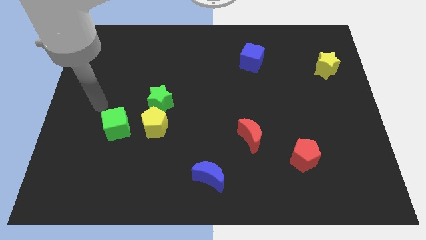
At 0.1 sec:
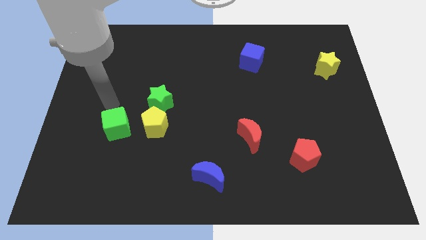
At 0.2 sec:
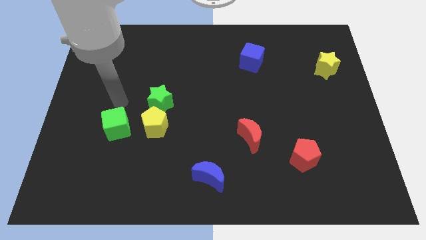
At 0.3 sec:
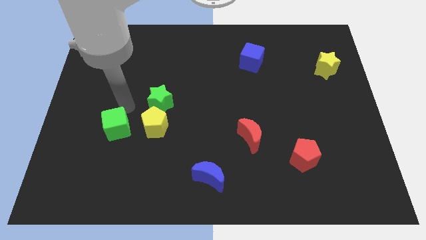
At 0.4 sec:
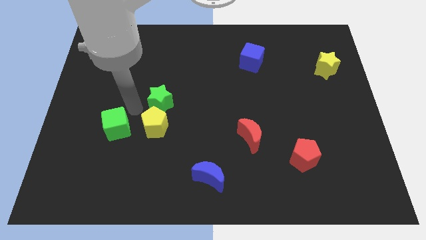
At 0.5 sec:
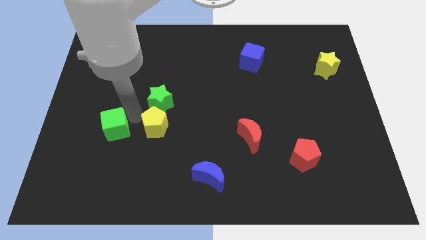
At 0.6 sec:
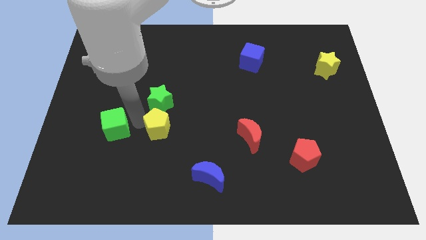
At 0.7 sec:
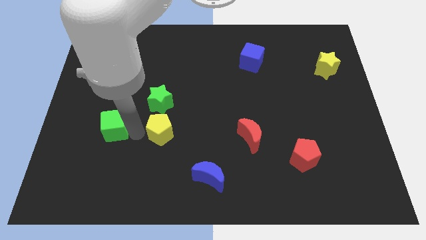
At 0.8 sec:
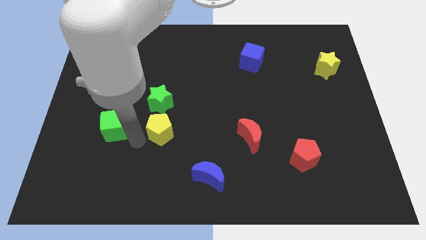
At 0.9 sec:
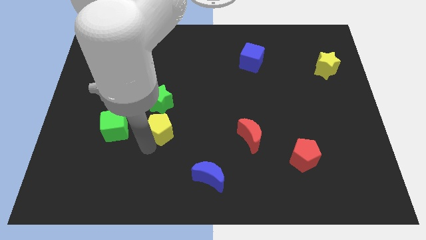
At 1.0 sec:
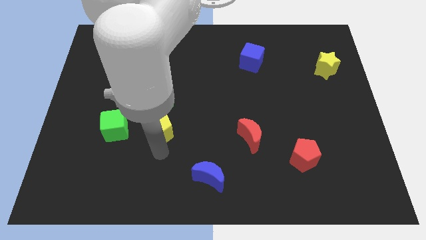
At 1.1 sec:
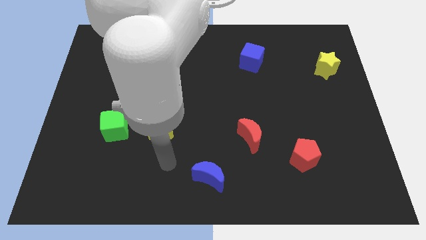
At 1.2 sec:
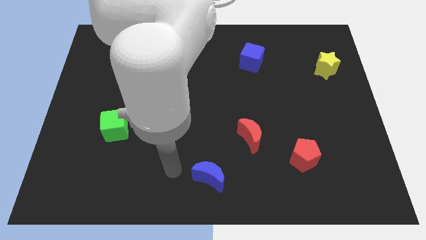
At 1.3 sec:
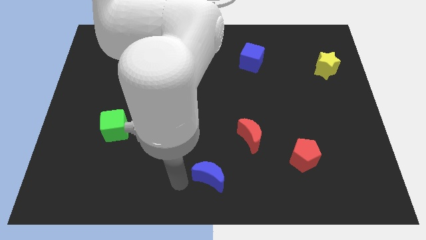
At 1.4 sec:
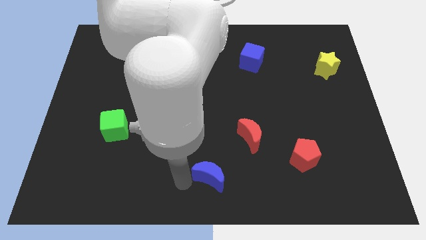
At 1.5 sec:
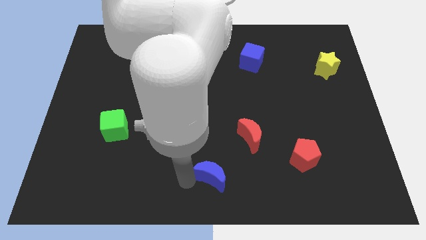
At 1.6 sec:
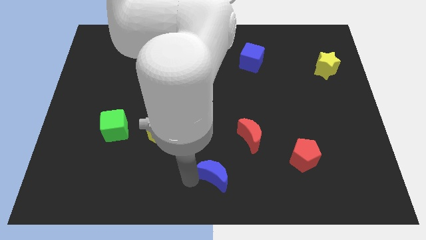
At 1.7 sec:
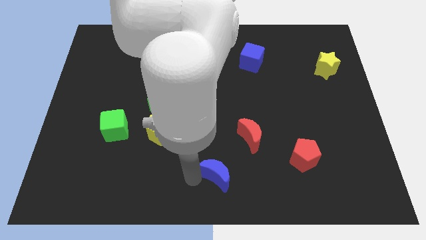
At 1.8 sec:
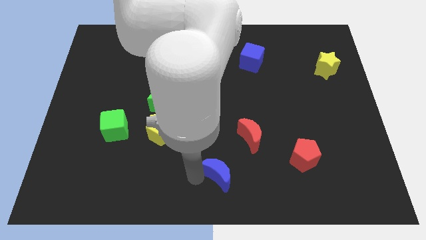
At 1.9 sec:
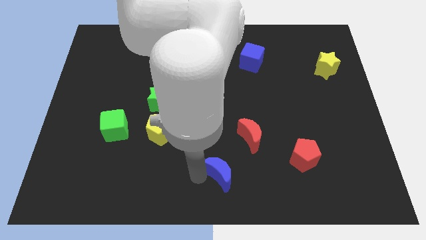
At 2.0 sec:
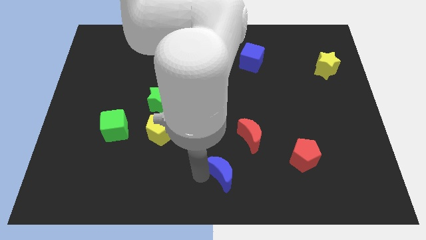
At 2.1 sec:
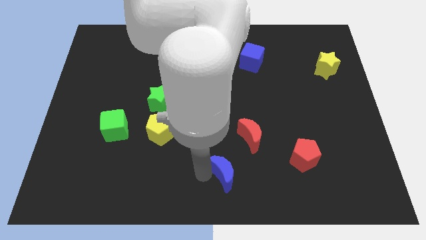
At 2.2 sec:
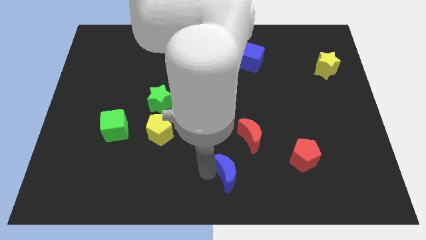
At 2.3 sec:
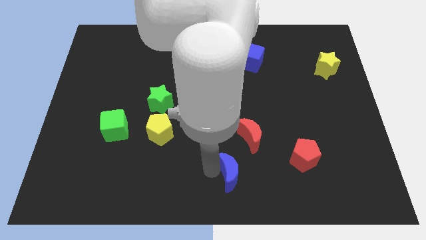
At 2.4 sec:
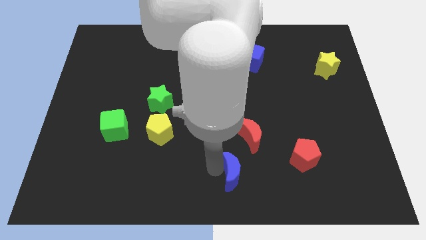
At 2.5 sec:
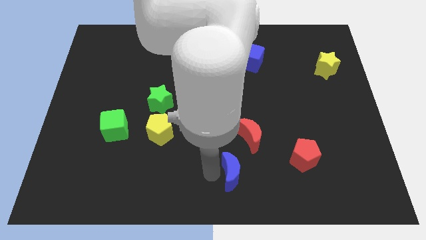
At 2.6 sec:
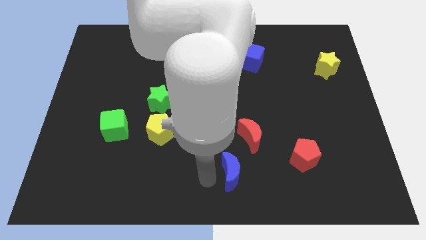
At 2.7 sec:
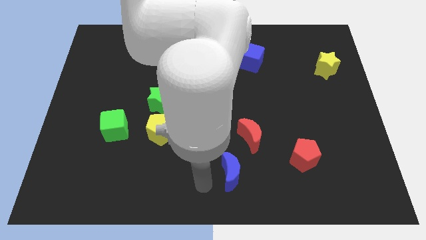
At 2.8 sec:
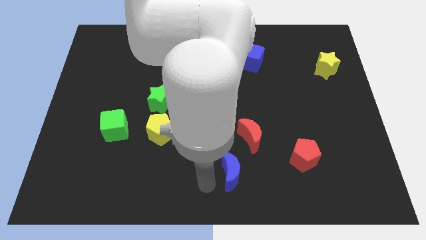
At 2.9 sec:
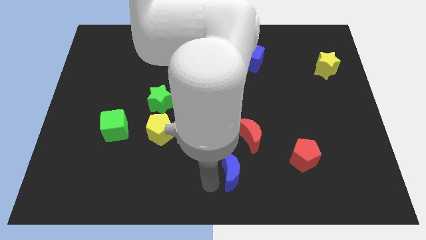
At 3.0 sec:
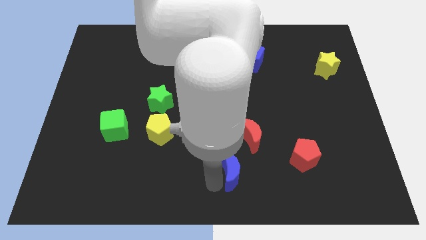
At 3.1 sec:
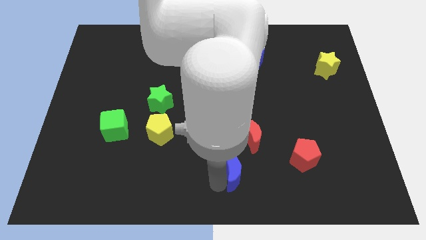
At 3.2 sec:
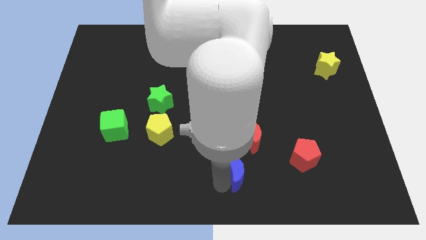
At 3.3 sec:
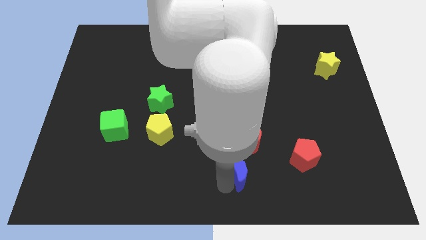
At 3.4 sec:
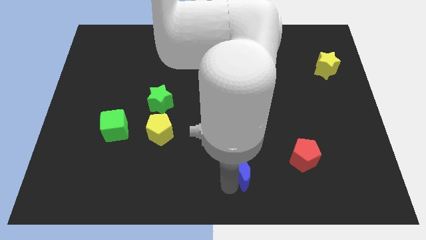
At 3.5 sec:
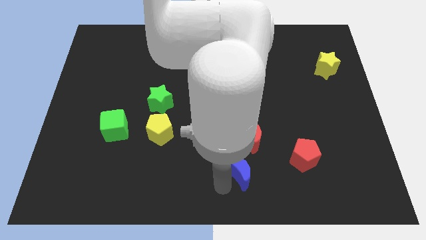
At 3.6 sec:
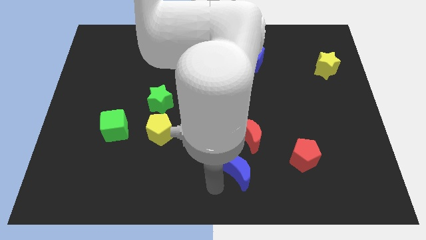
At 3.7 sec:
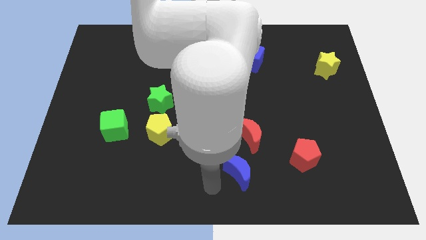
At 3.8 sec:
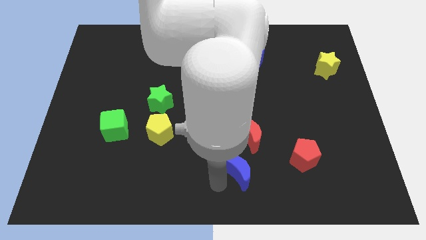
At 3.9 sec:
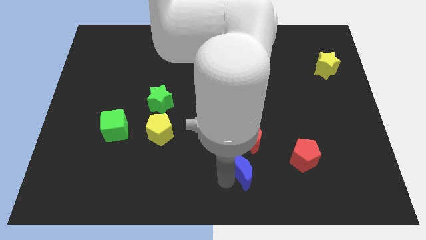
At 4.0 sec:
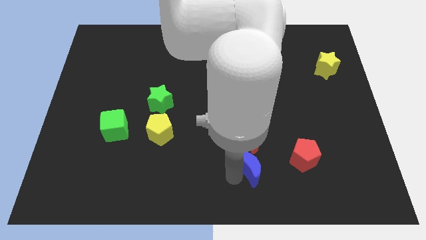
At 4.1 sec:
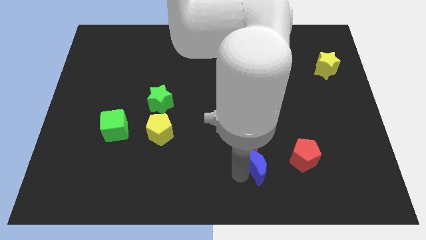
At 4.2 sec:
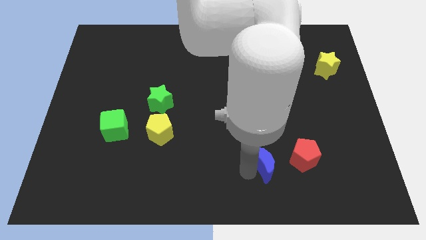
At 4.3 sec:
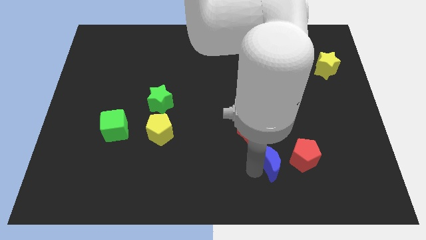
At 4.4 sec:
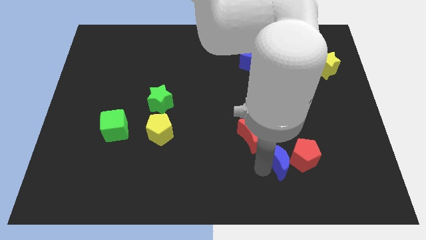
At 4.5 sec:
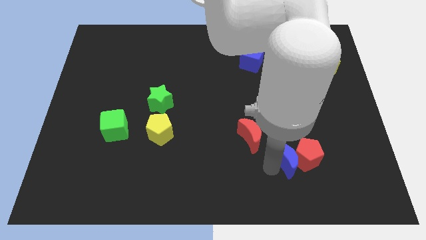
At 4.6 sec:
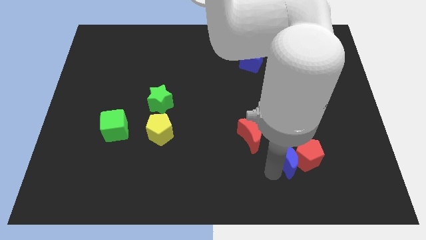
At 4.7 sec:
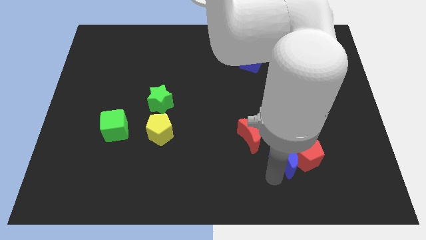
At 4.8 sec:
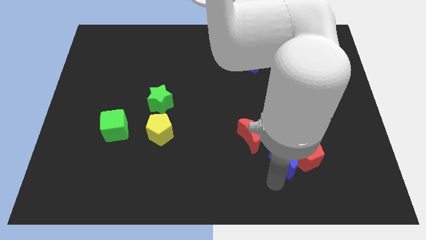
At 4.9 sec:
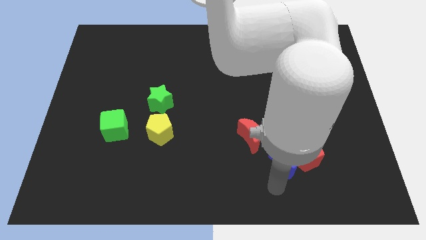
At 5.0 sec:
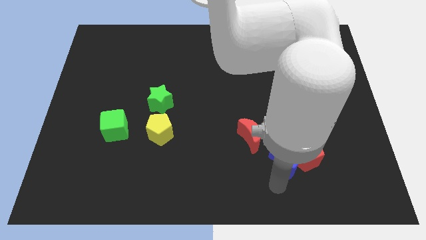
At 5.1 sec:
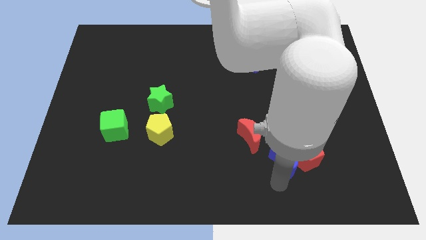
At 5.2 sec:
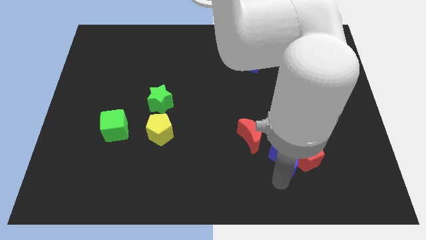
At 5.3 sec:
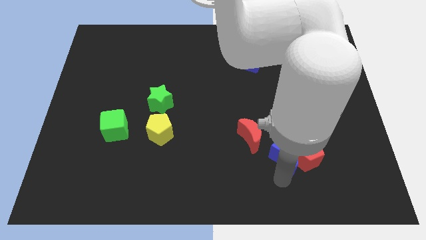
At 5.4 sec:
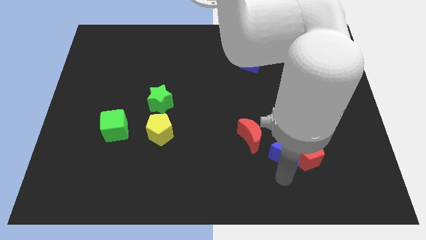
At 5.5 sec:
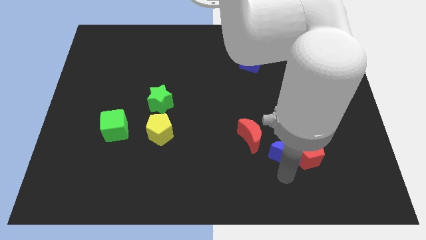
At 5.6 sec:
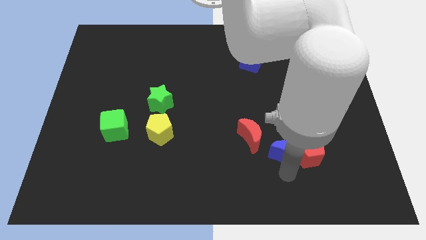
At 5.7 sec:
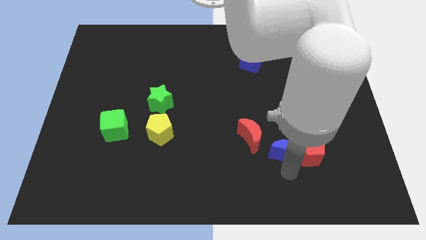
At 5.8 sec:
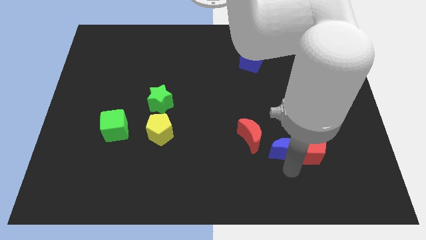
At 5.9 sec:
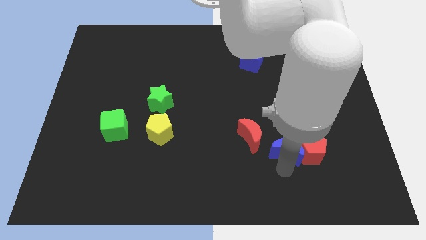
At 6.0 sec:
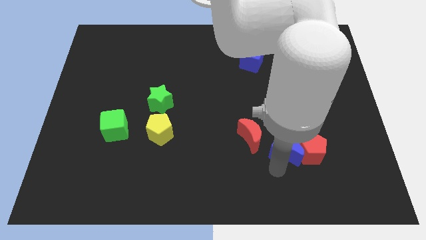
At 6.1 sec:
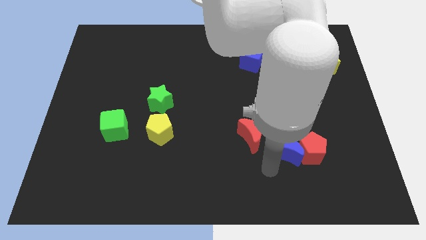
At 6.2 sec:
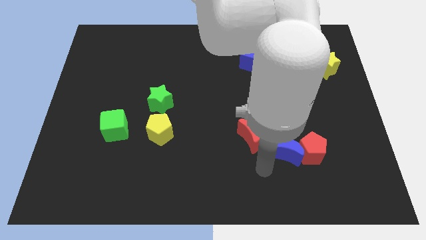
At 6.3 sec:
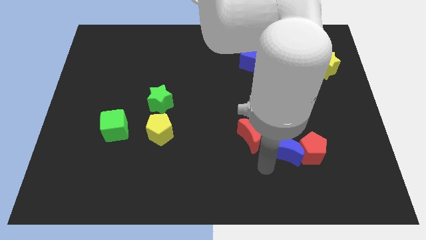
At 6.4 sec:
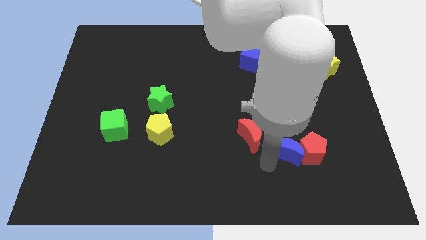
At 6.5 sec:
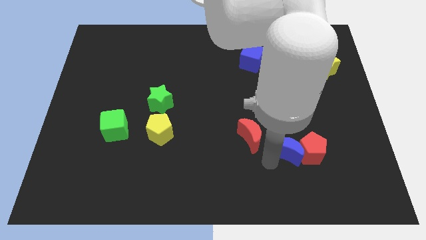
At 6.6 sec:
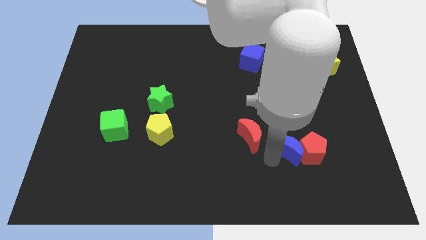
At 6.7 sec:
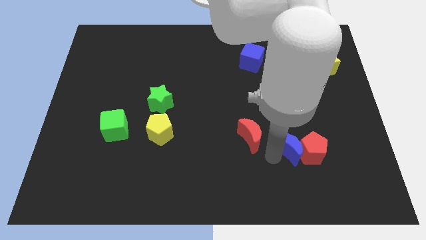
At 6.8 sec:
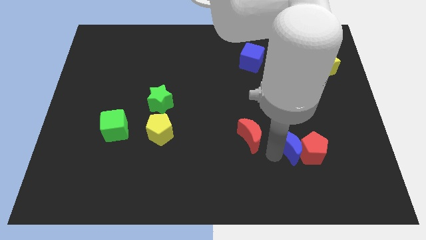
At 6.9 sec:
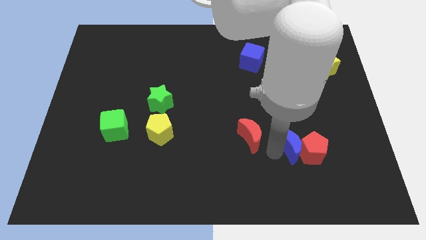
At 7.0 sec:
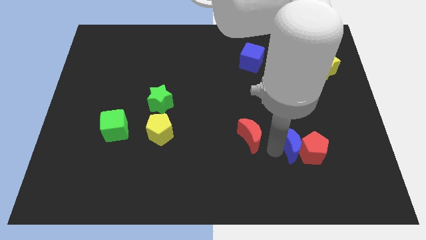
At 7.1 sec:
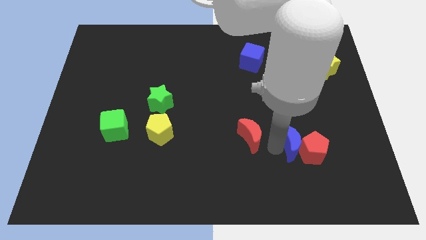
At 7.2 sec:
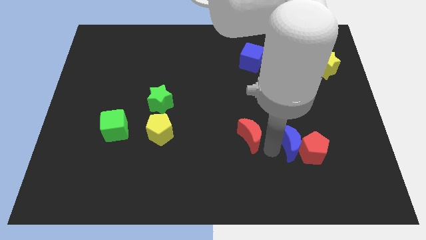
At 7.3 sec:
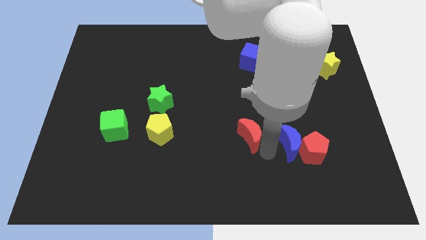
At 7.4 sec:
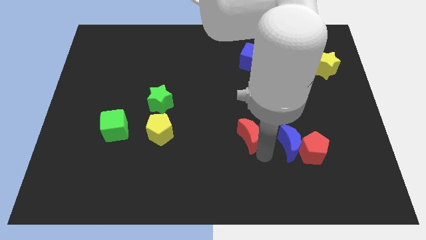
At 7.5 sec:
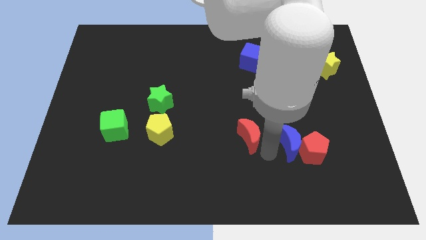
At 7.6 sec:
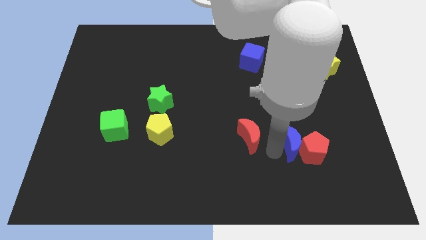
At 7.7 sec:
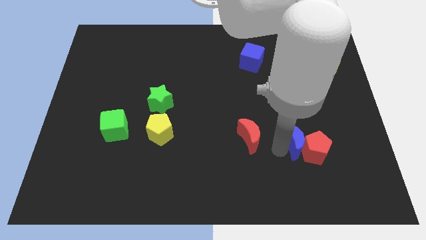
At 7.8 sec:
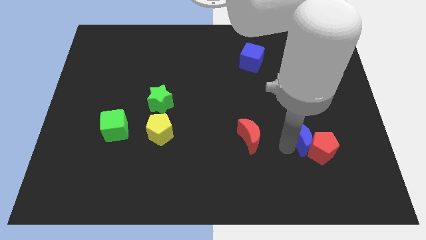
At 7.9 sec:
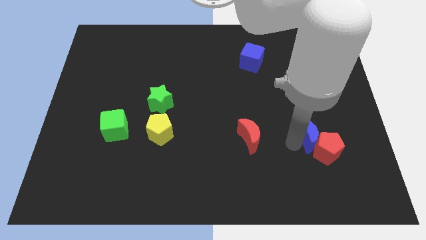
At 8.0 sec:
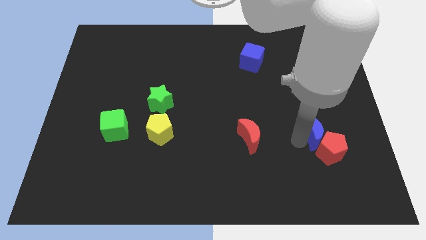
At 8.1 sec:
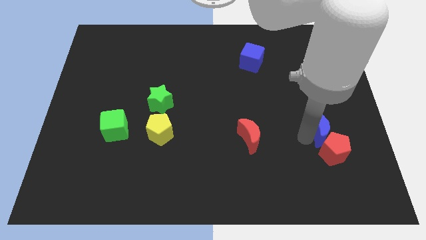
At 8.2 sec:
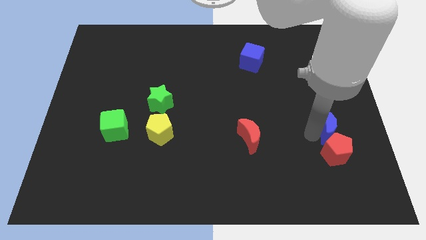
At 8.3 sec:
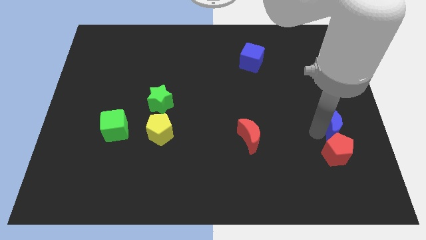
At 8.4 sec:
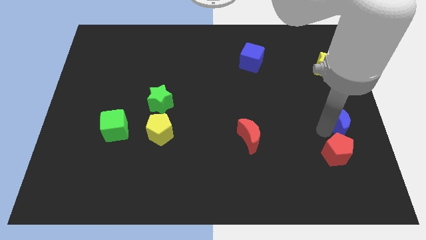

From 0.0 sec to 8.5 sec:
put the blue moon to the center right
